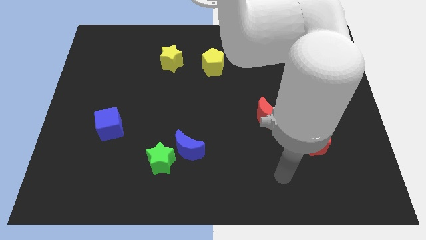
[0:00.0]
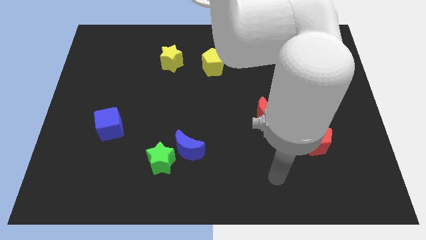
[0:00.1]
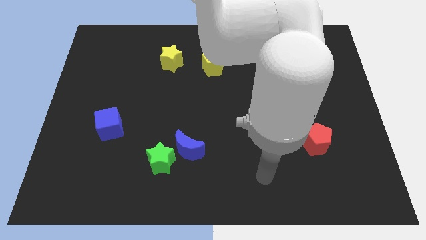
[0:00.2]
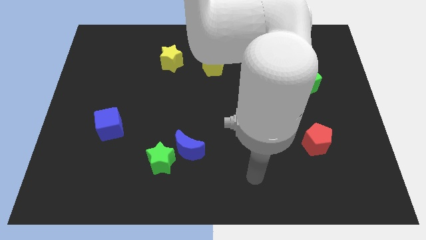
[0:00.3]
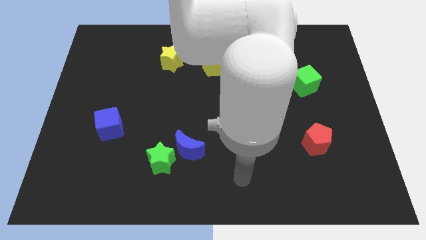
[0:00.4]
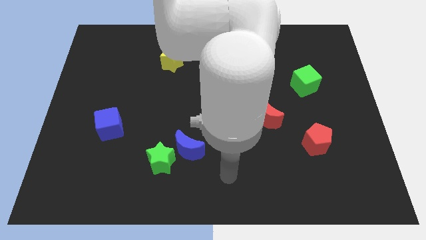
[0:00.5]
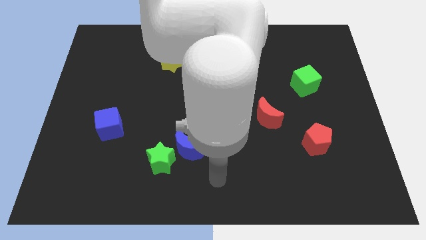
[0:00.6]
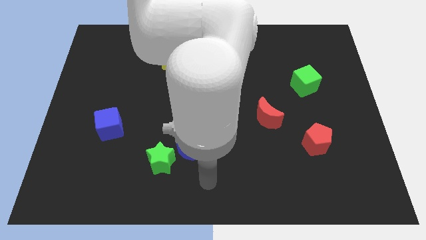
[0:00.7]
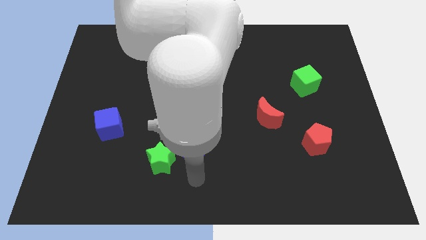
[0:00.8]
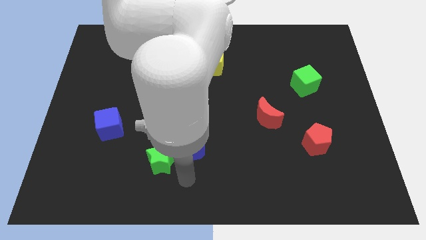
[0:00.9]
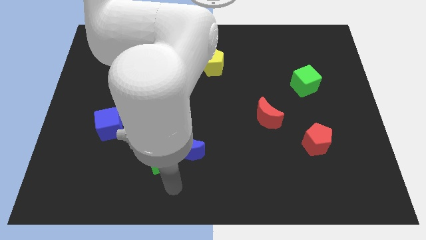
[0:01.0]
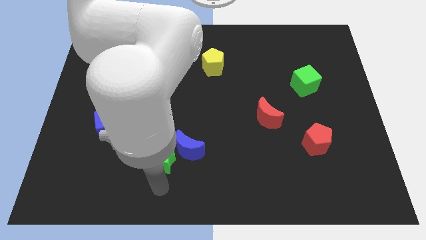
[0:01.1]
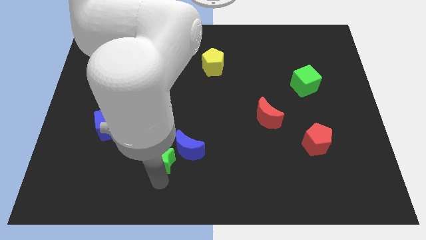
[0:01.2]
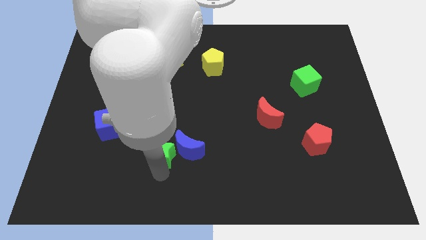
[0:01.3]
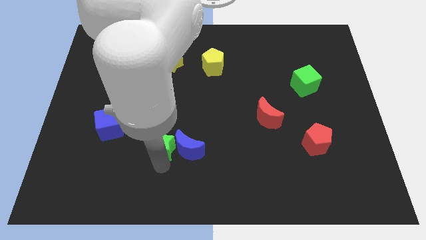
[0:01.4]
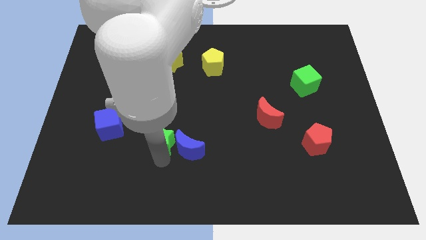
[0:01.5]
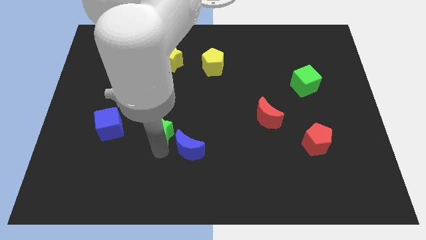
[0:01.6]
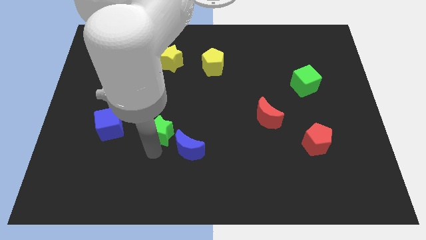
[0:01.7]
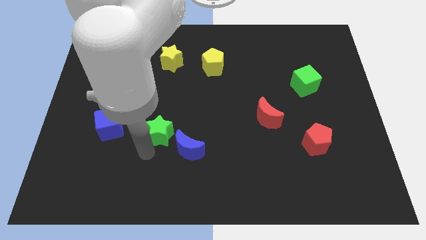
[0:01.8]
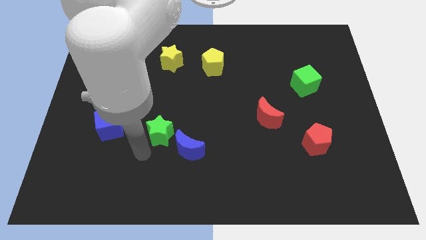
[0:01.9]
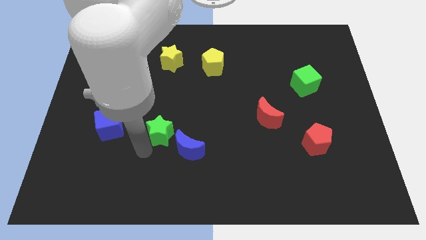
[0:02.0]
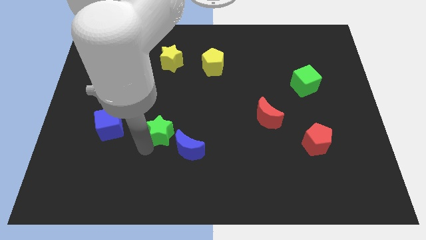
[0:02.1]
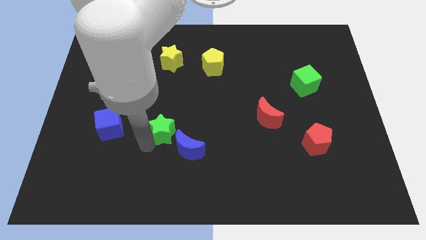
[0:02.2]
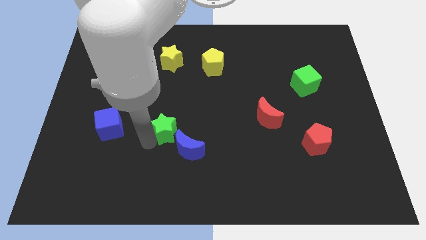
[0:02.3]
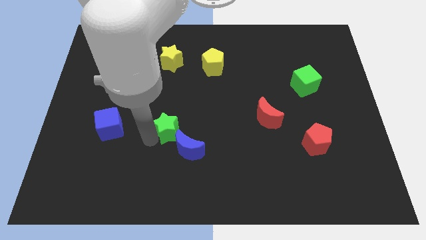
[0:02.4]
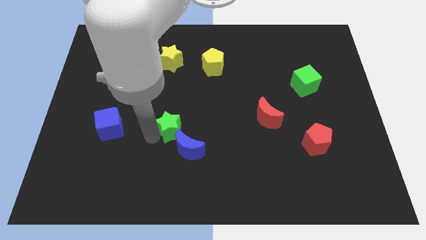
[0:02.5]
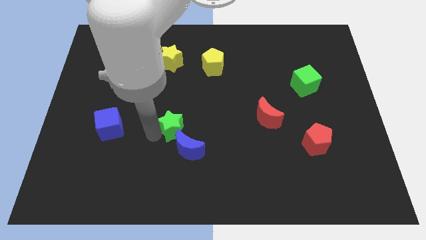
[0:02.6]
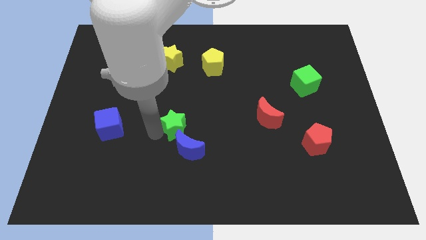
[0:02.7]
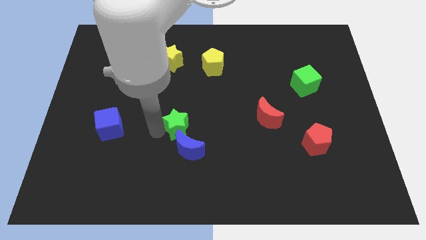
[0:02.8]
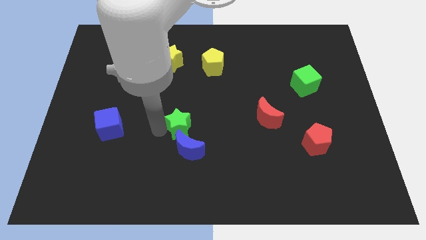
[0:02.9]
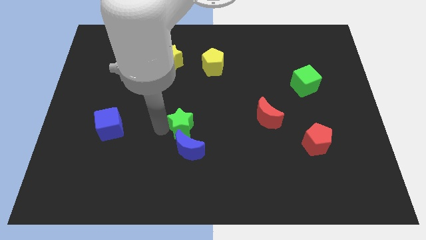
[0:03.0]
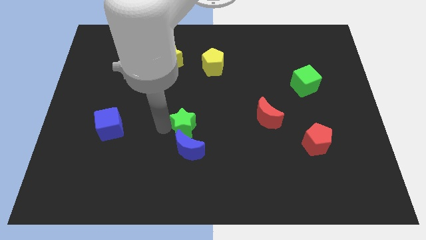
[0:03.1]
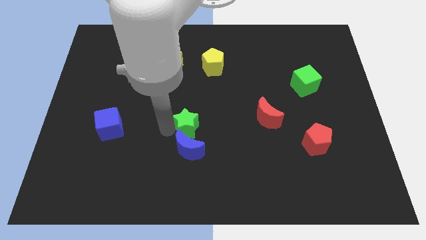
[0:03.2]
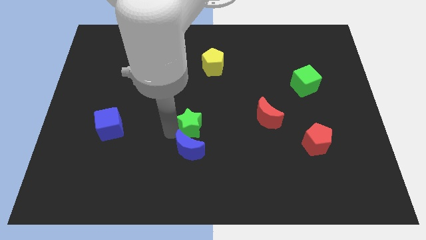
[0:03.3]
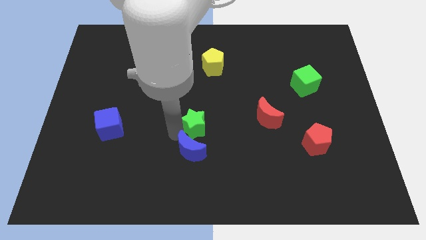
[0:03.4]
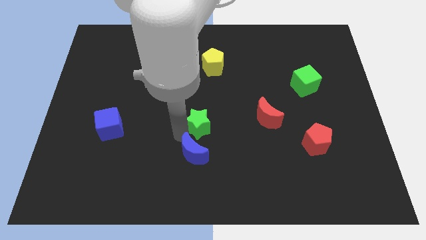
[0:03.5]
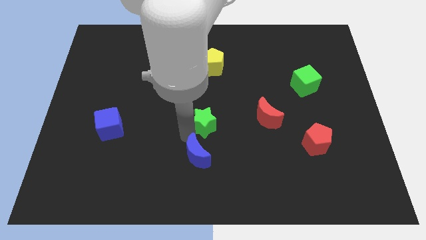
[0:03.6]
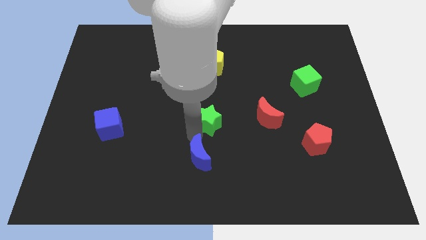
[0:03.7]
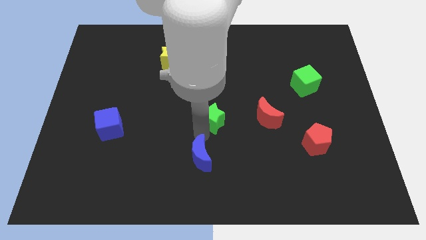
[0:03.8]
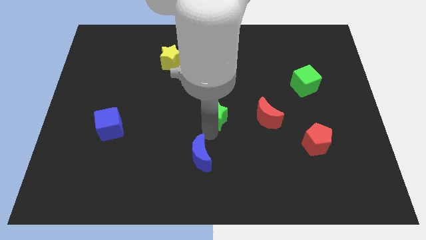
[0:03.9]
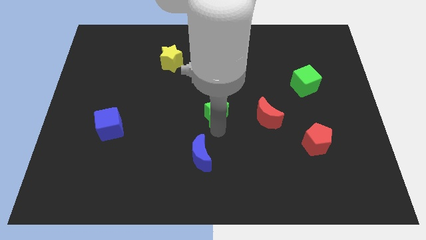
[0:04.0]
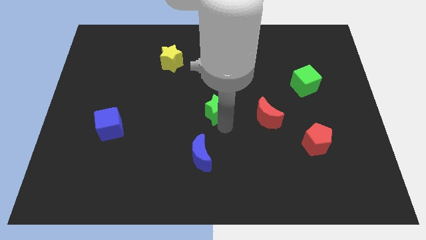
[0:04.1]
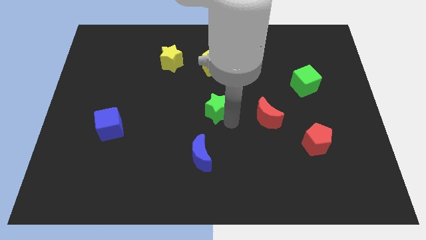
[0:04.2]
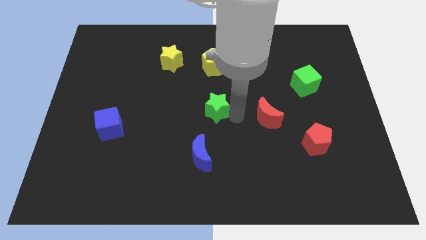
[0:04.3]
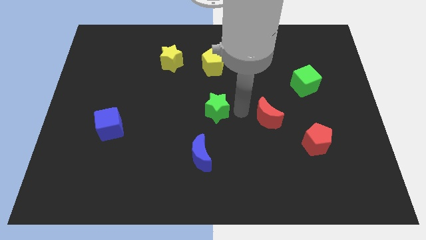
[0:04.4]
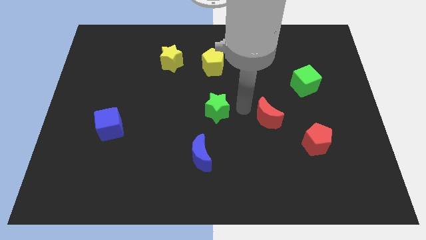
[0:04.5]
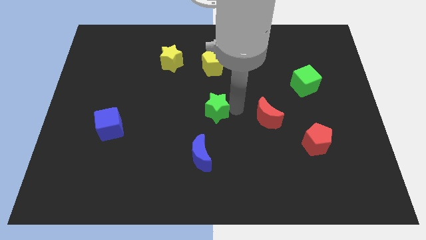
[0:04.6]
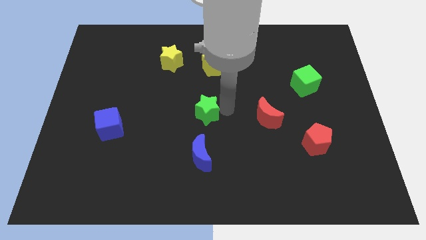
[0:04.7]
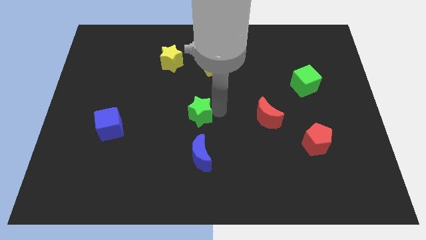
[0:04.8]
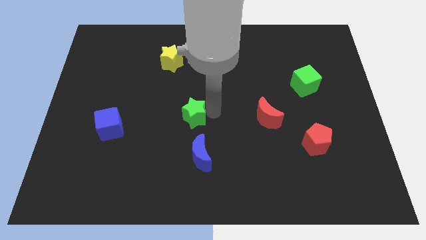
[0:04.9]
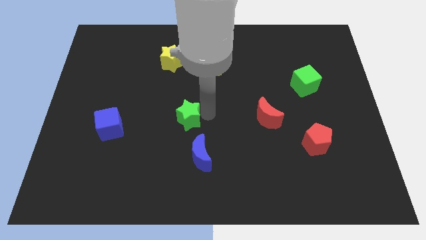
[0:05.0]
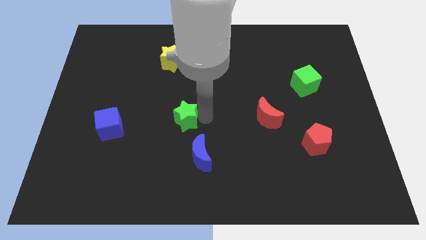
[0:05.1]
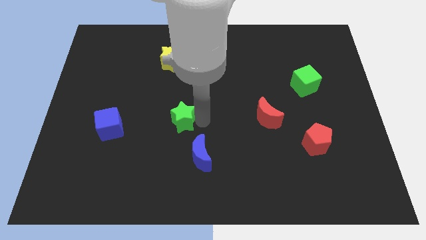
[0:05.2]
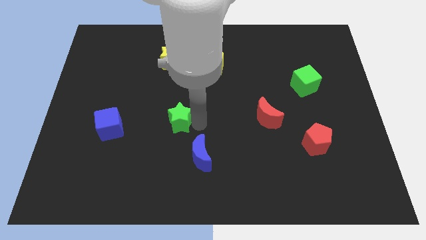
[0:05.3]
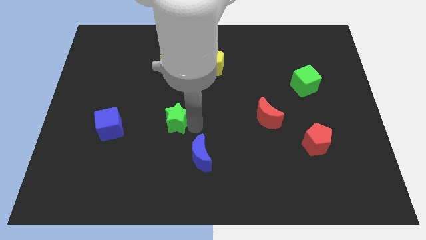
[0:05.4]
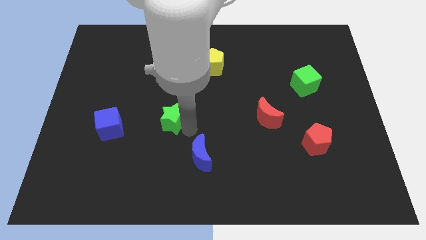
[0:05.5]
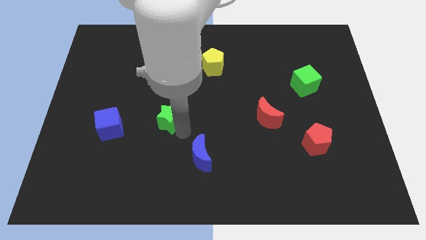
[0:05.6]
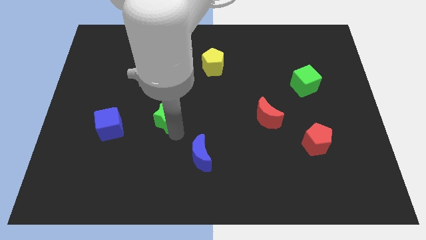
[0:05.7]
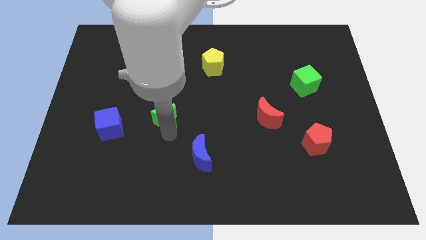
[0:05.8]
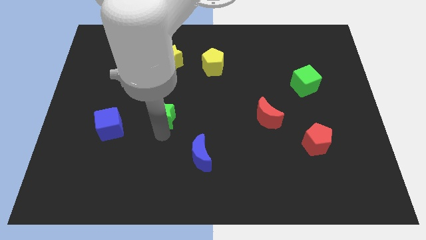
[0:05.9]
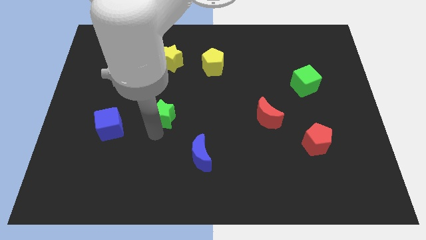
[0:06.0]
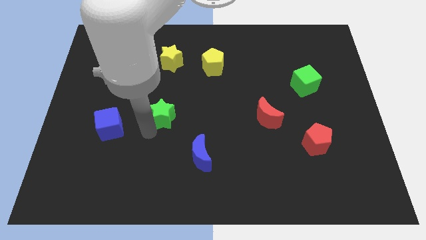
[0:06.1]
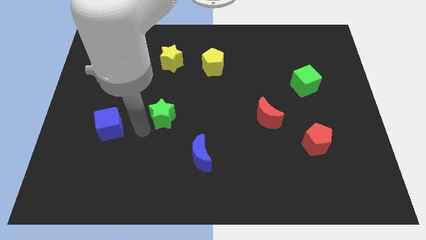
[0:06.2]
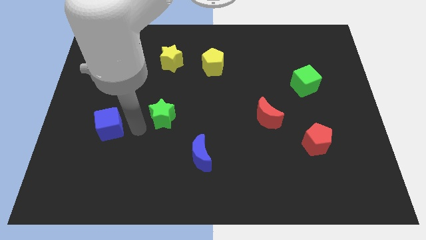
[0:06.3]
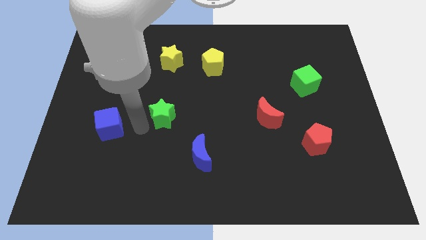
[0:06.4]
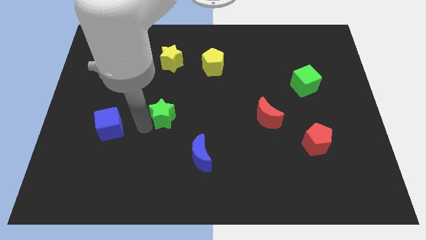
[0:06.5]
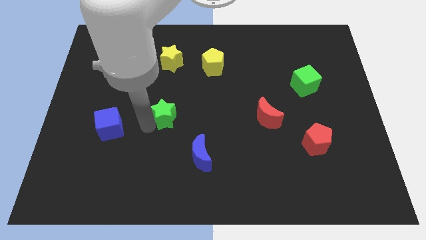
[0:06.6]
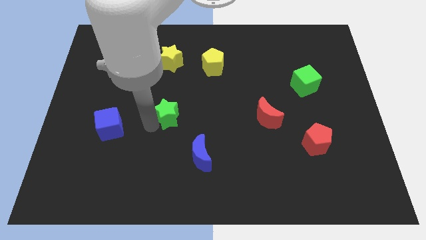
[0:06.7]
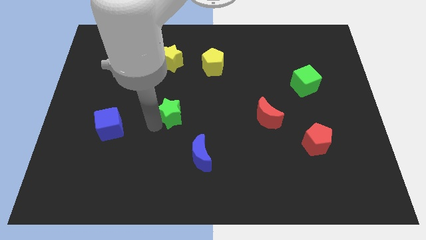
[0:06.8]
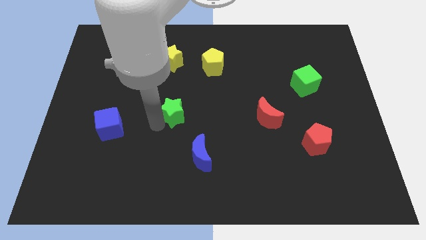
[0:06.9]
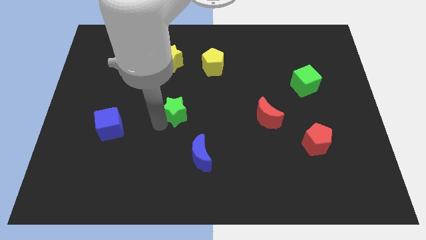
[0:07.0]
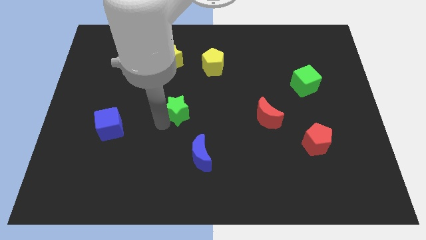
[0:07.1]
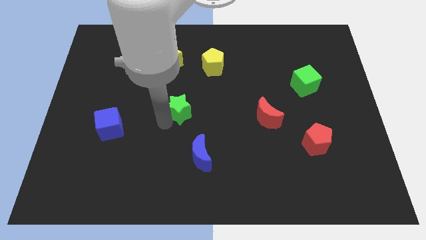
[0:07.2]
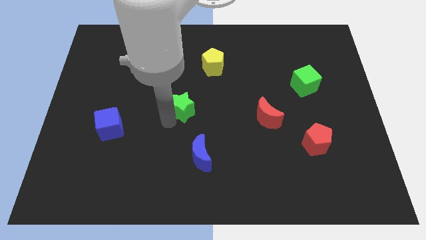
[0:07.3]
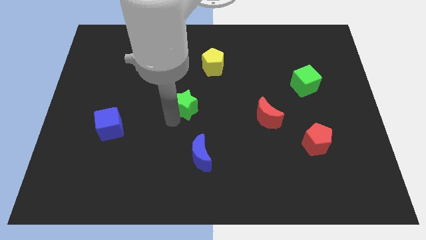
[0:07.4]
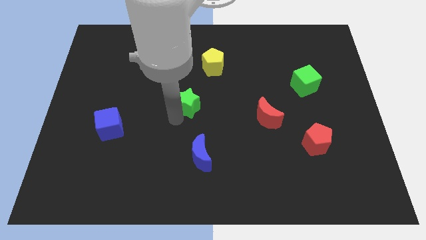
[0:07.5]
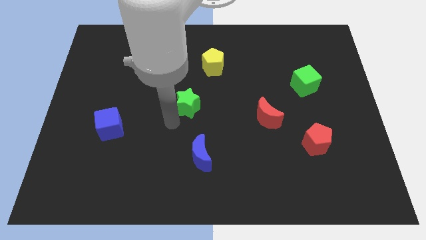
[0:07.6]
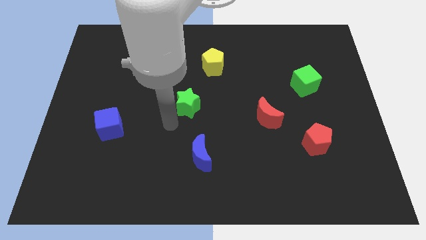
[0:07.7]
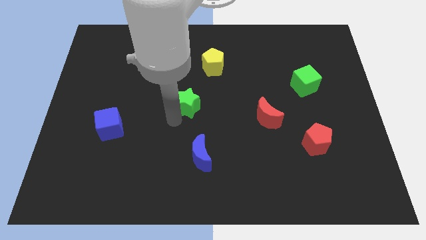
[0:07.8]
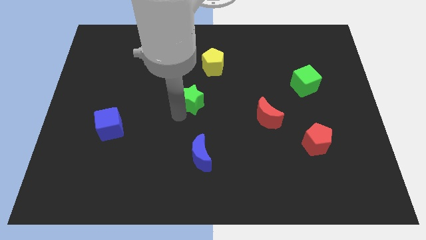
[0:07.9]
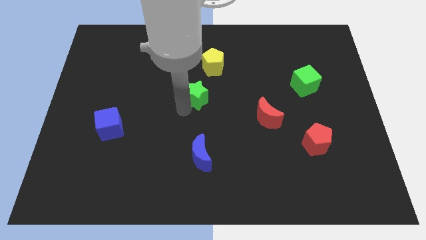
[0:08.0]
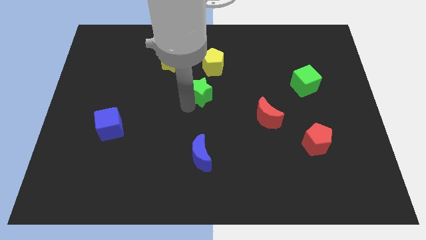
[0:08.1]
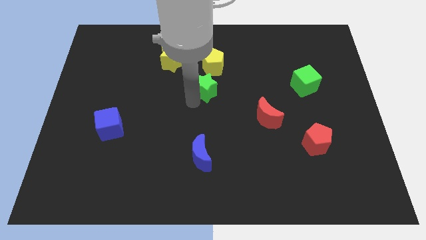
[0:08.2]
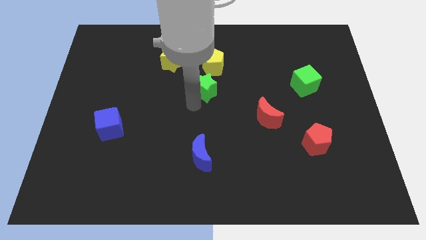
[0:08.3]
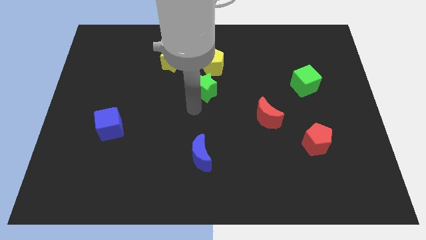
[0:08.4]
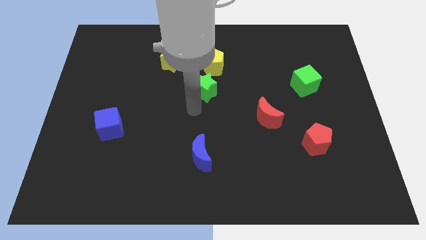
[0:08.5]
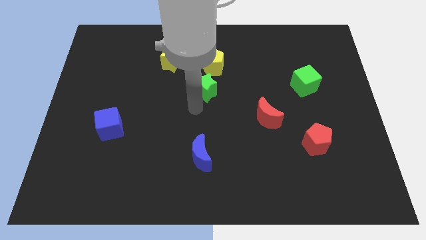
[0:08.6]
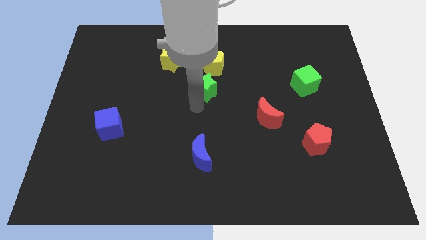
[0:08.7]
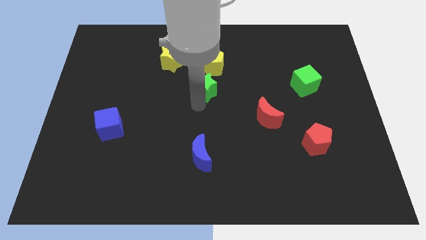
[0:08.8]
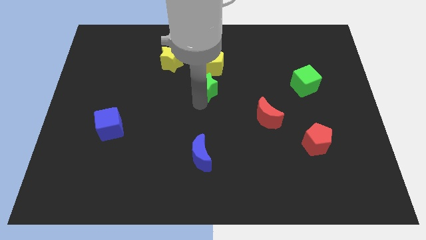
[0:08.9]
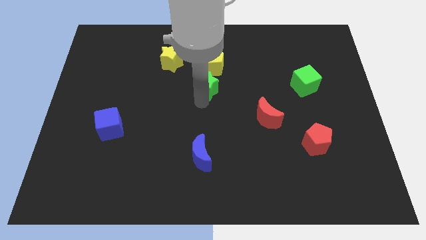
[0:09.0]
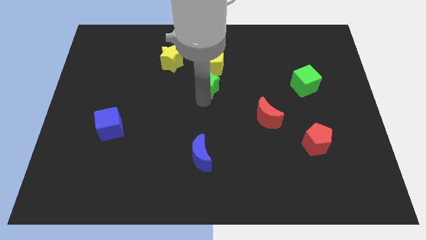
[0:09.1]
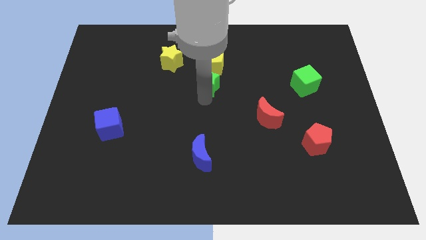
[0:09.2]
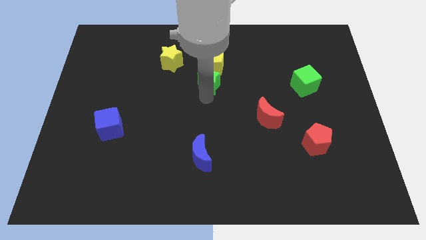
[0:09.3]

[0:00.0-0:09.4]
slide the green star towards the yellow pentagon
